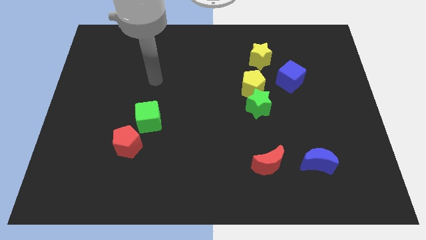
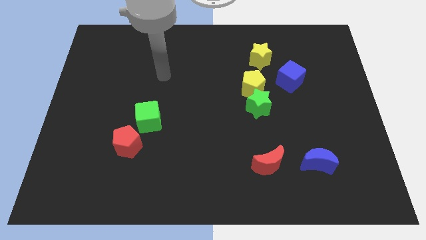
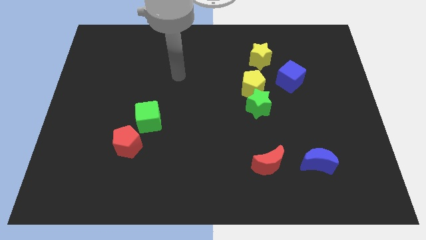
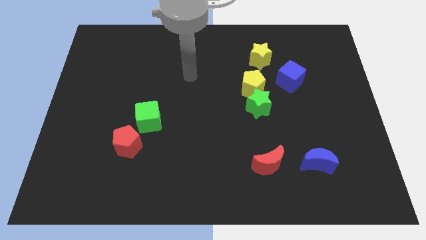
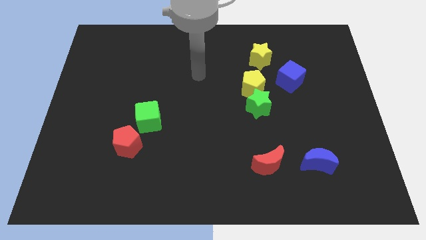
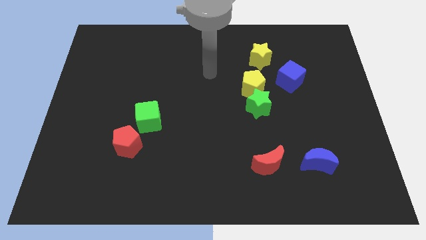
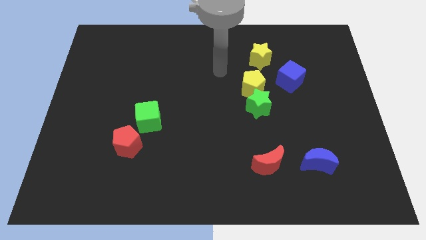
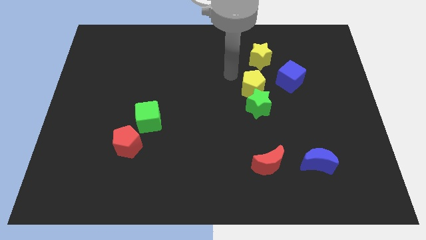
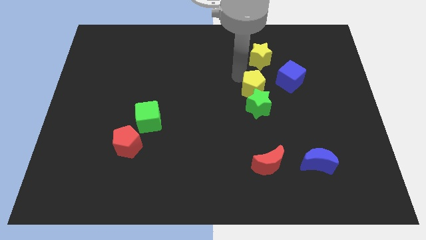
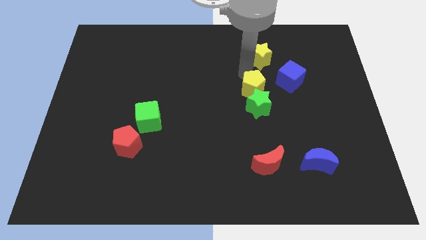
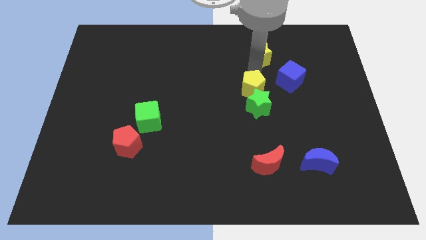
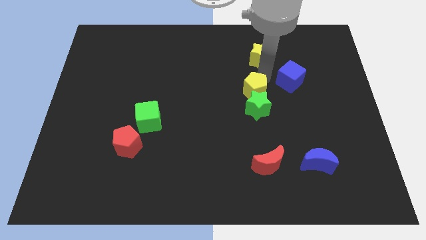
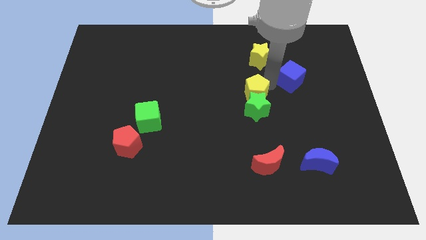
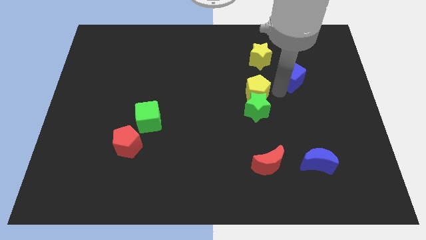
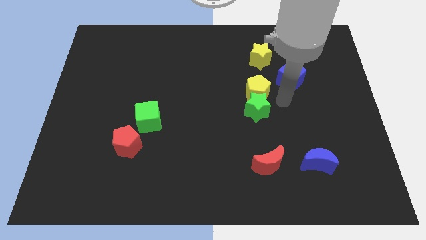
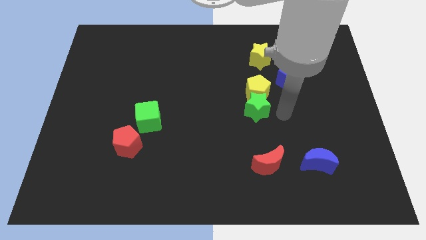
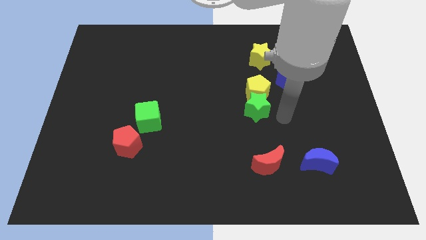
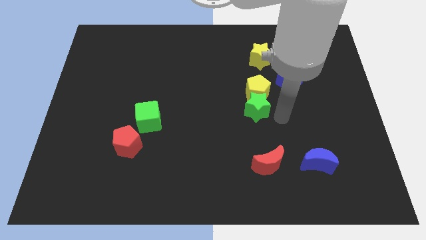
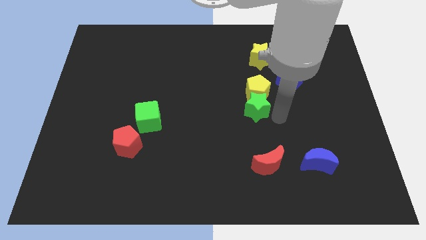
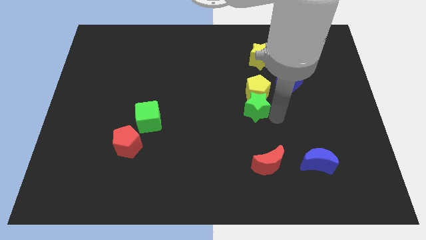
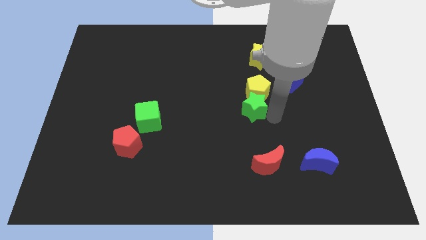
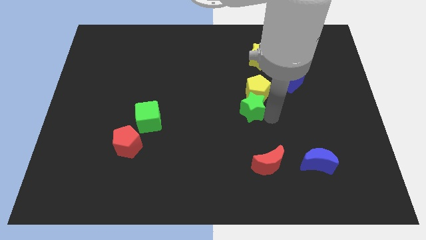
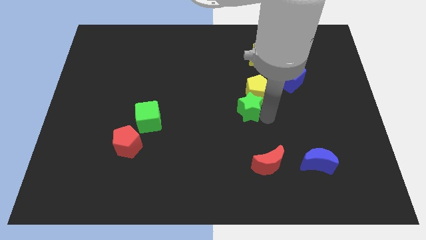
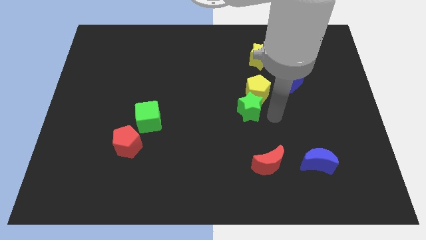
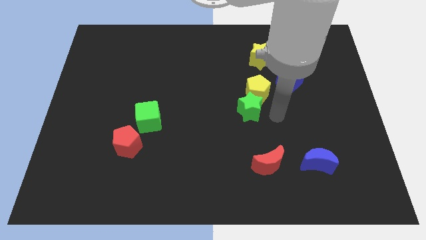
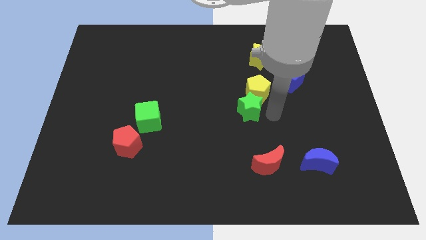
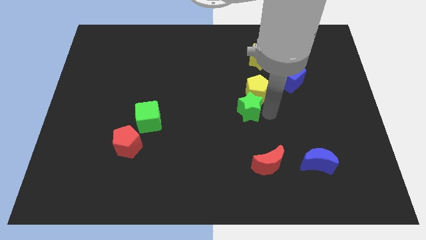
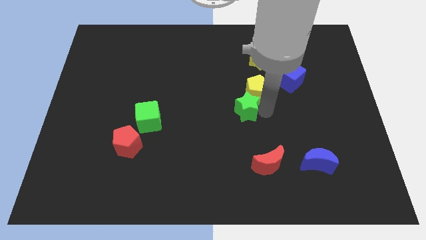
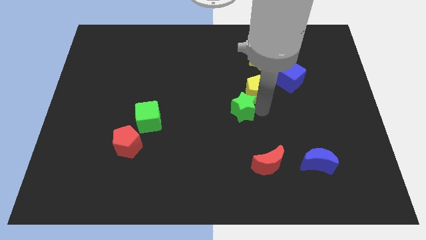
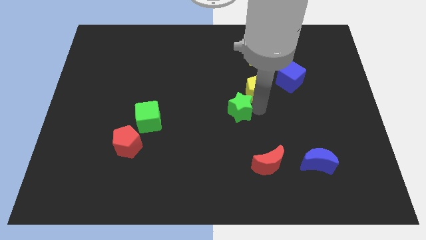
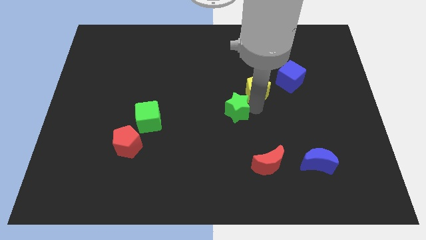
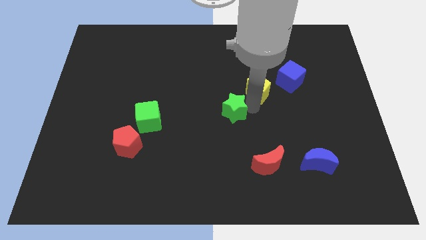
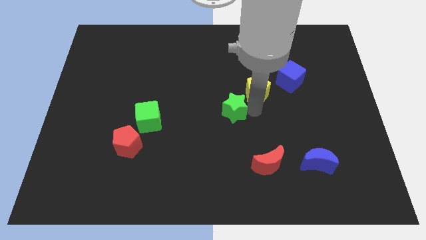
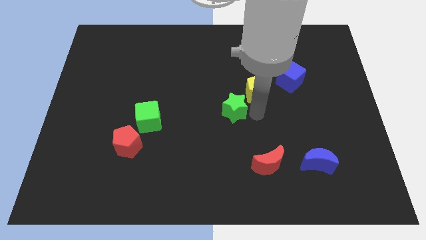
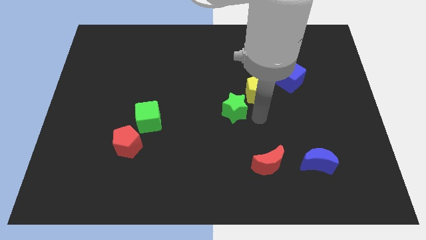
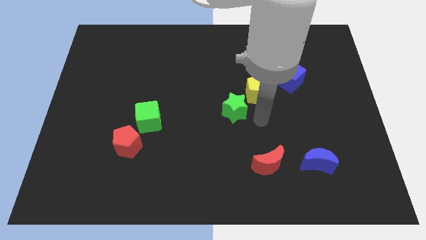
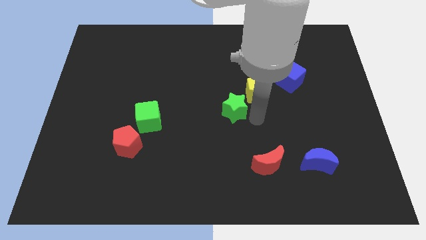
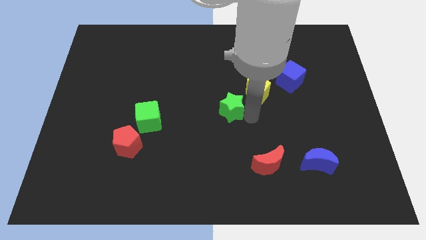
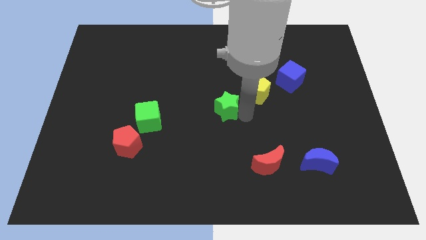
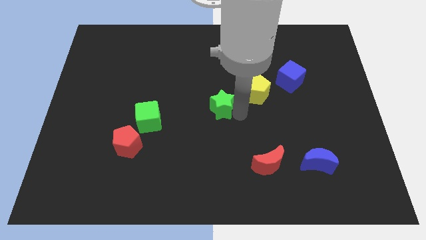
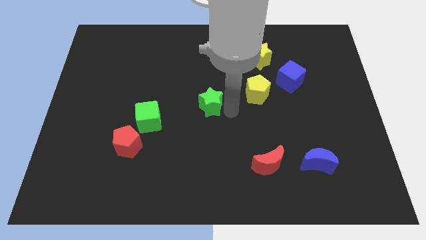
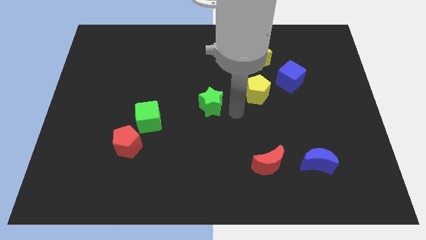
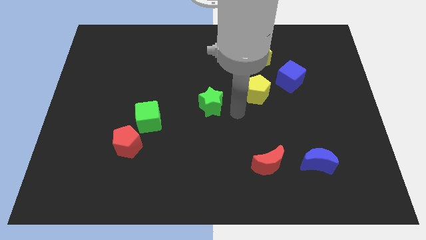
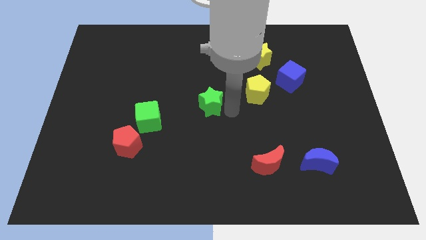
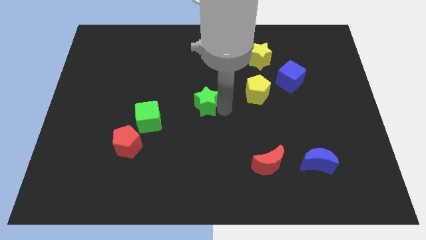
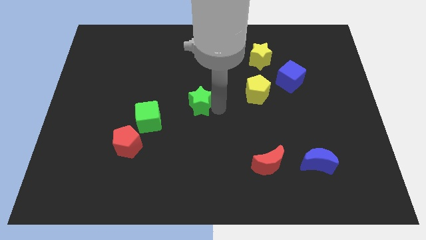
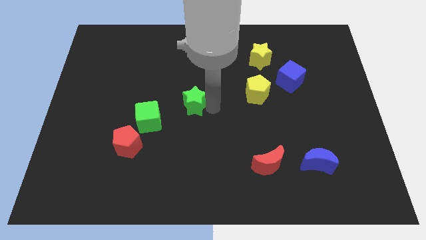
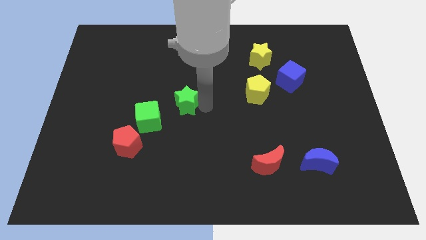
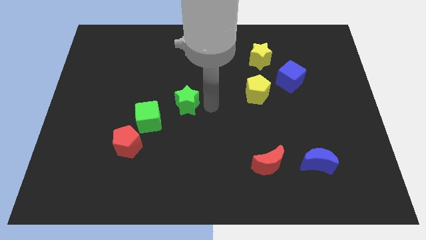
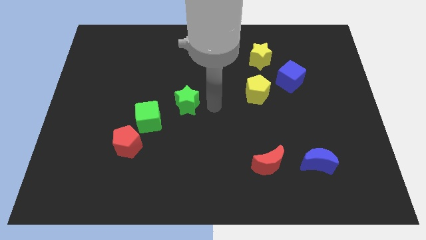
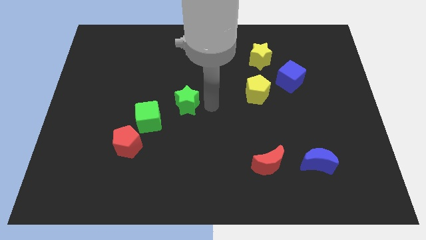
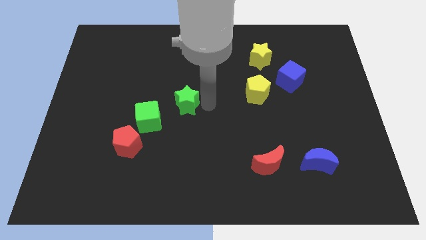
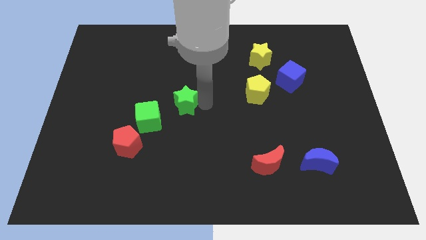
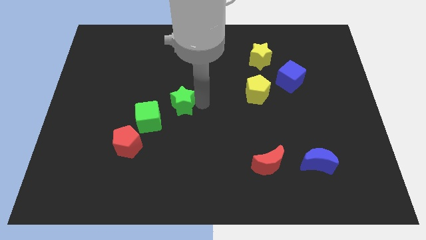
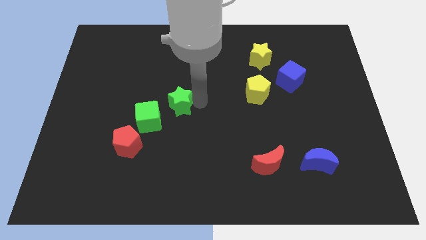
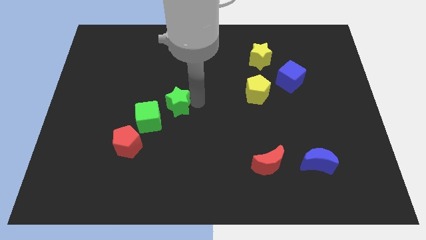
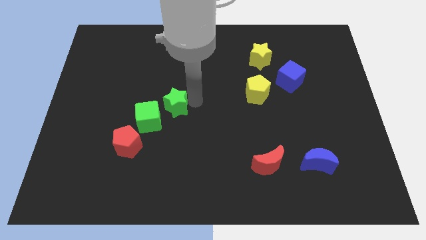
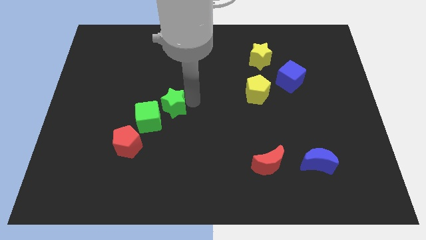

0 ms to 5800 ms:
move the green star to the left

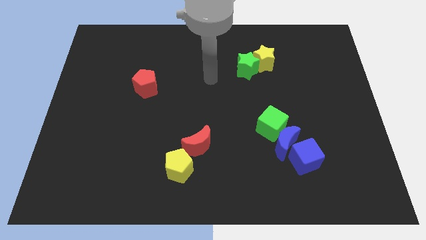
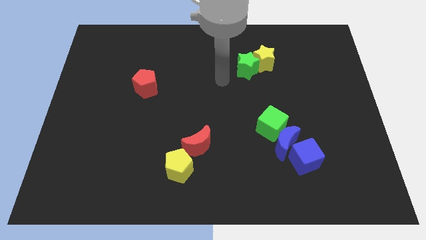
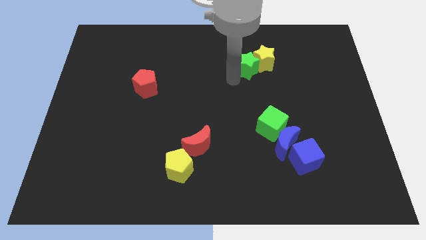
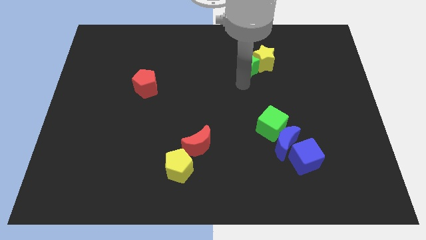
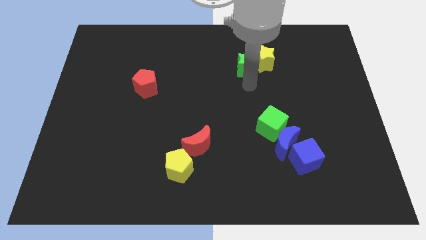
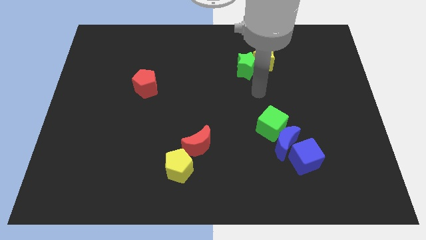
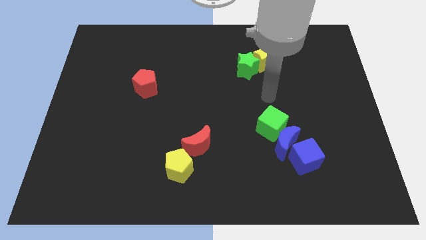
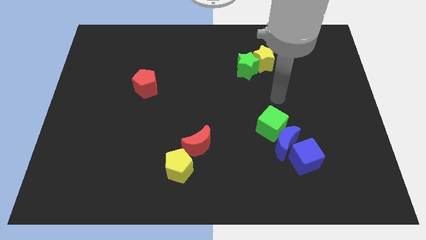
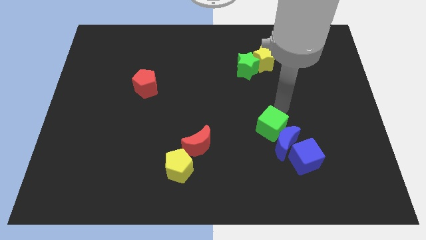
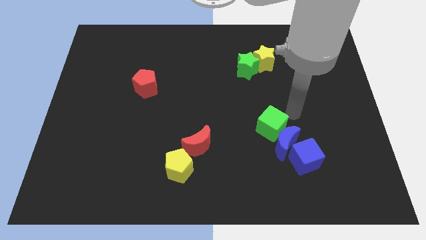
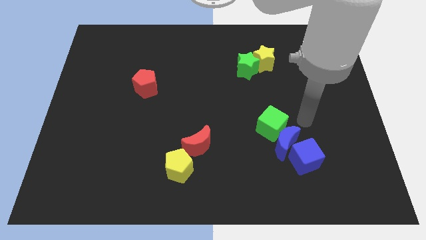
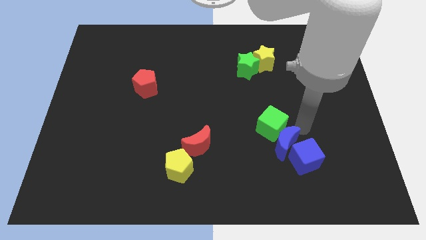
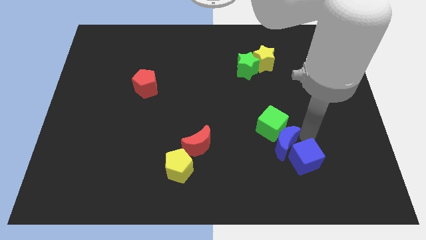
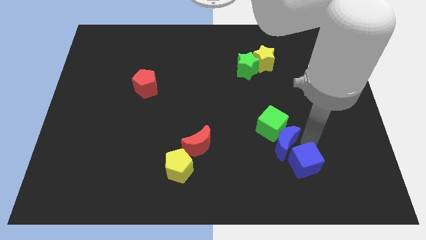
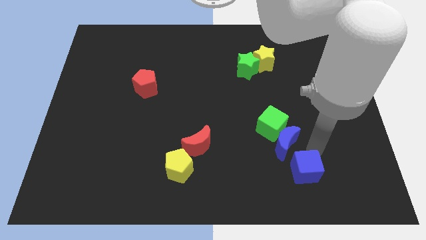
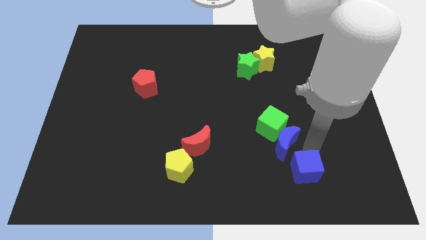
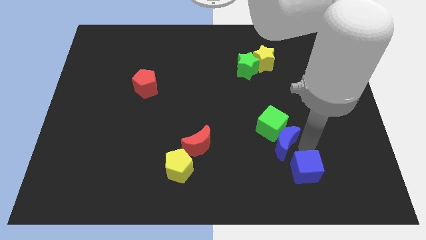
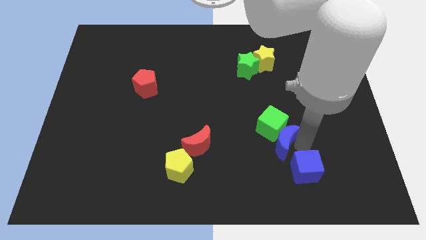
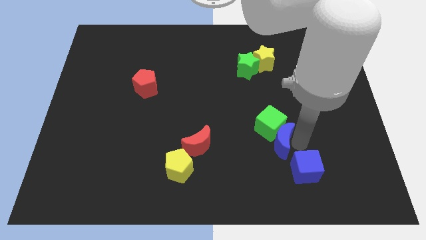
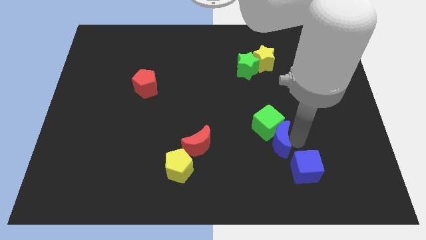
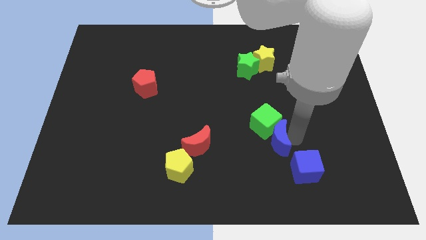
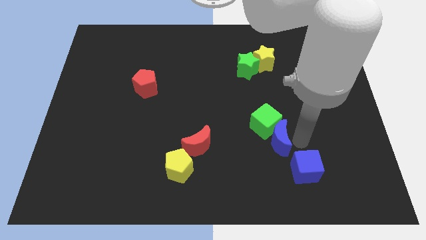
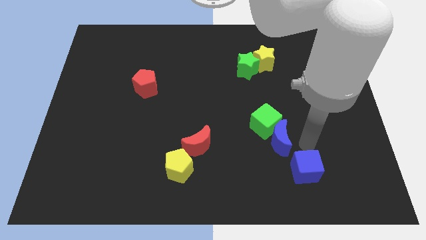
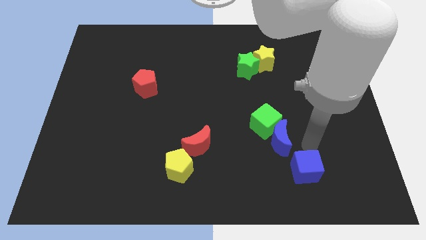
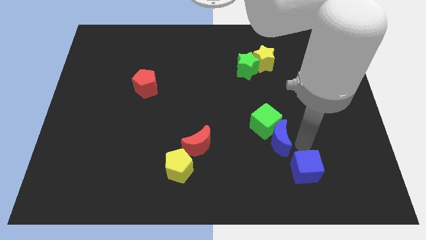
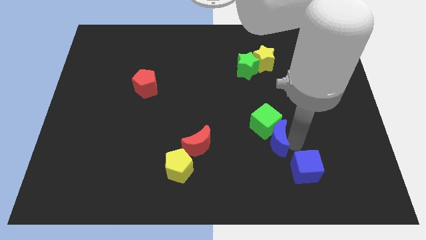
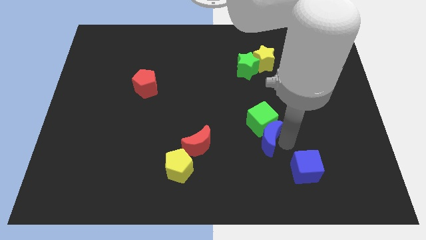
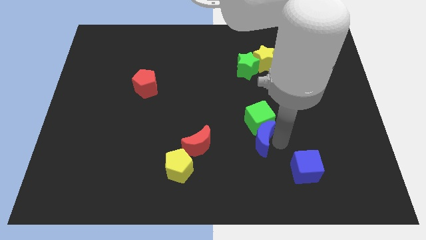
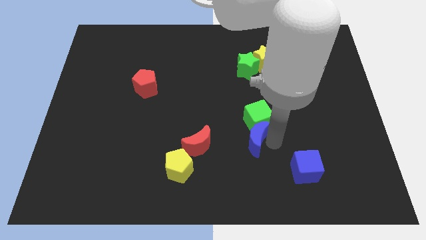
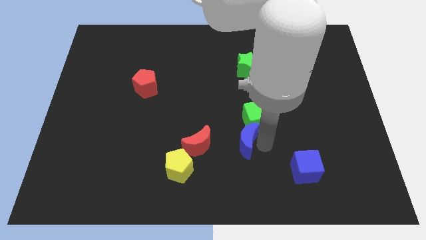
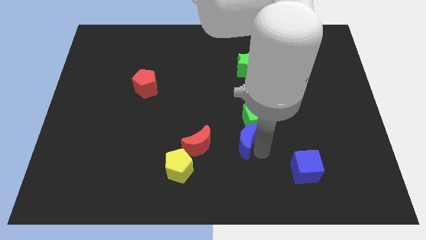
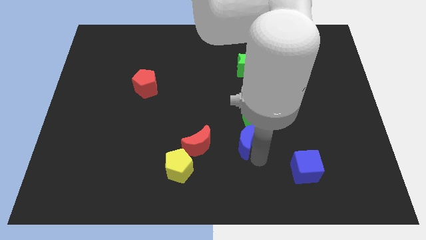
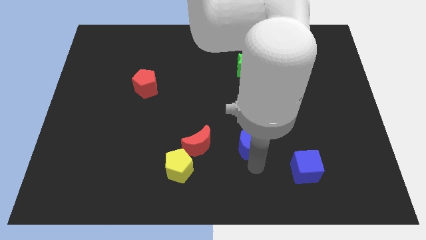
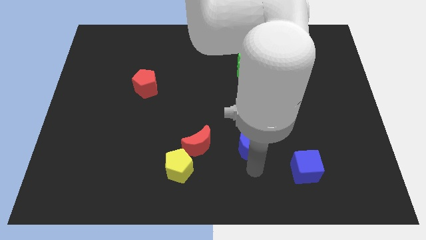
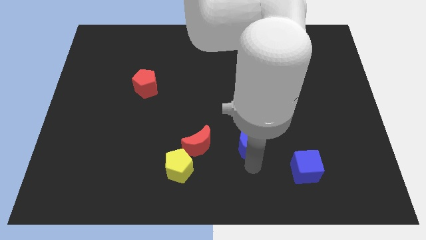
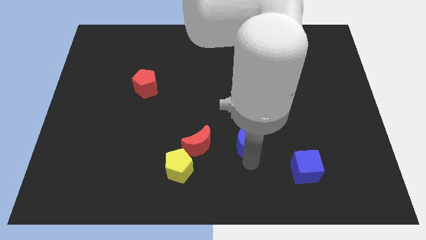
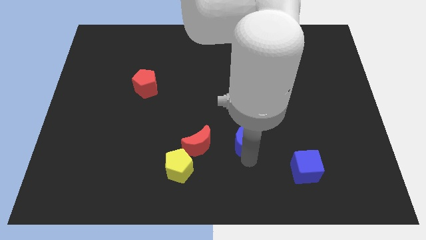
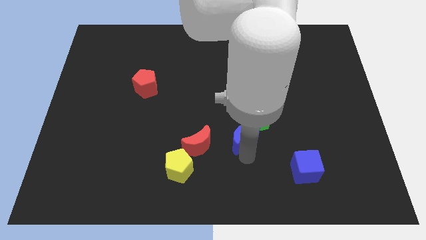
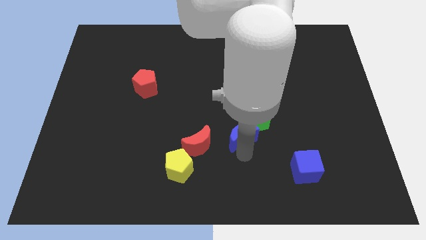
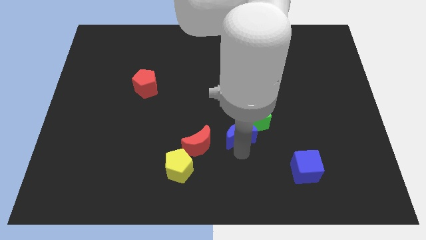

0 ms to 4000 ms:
push the blue moon diagonally upwards and left somewhat
